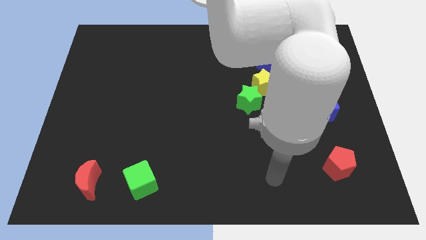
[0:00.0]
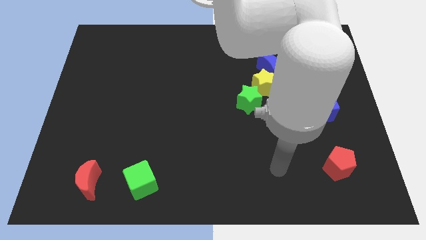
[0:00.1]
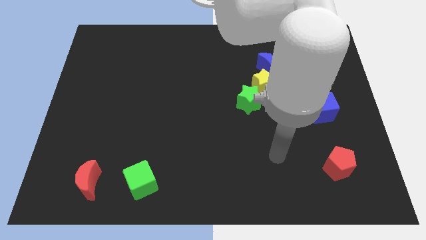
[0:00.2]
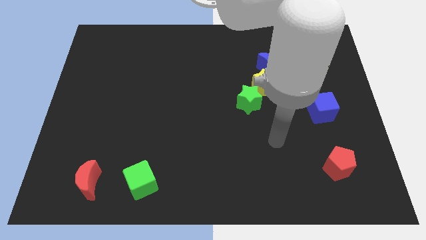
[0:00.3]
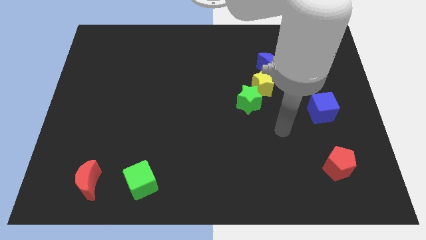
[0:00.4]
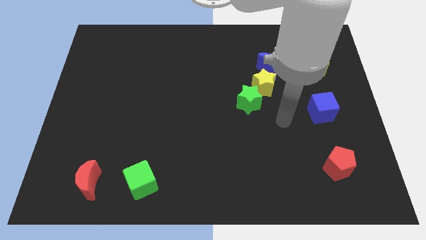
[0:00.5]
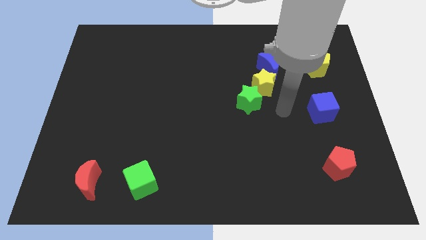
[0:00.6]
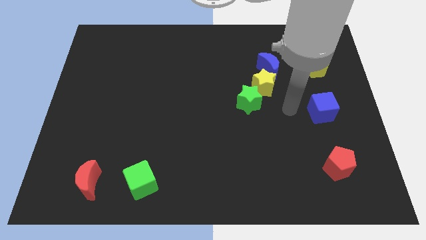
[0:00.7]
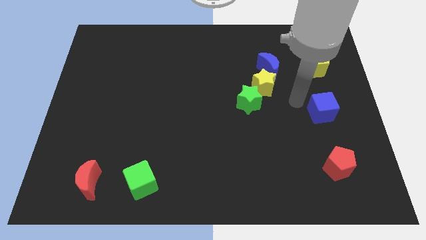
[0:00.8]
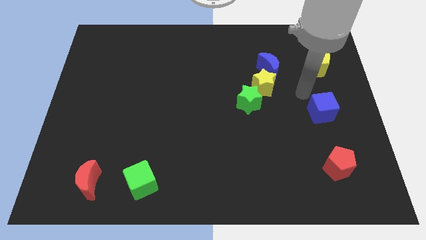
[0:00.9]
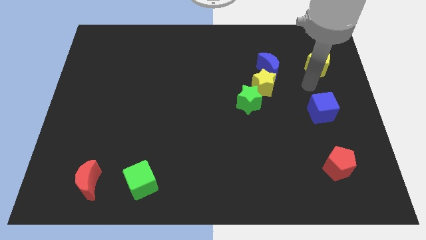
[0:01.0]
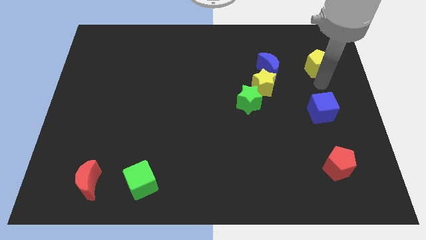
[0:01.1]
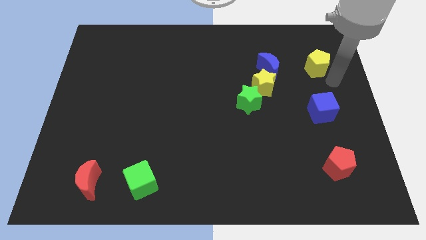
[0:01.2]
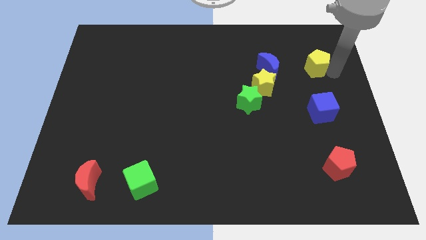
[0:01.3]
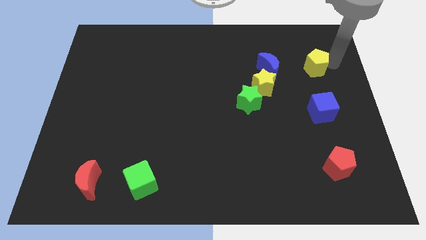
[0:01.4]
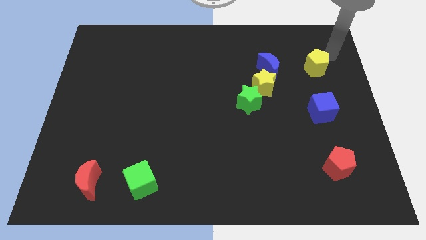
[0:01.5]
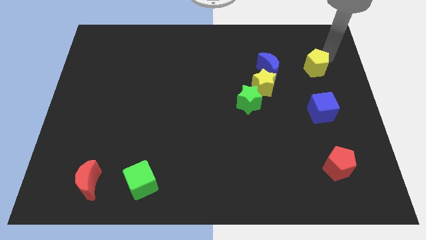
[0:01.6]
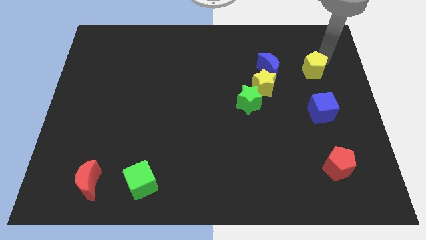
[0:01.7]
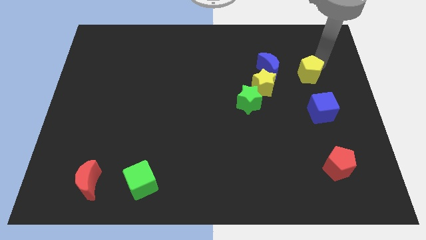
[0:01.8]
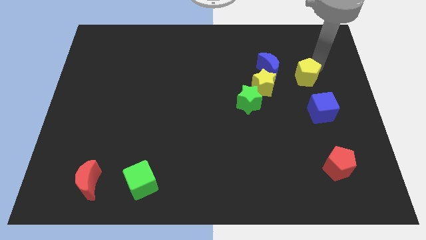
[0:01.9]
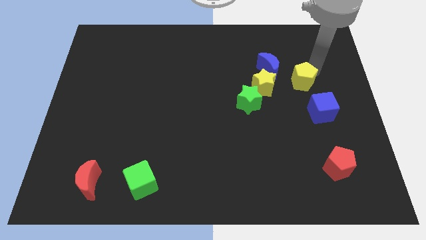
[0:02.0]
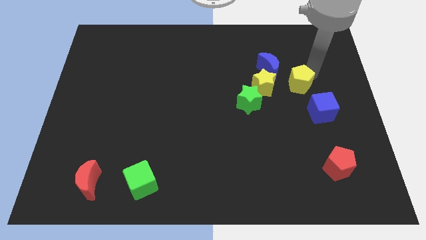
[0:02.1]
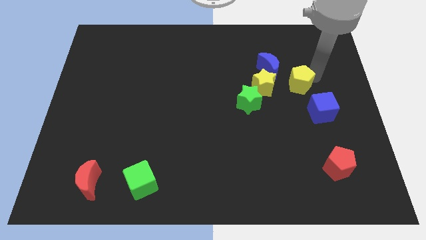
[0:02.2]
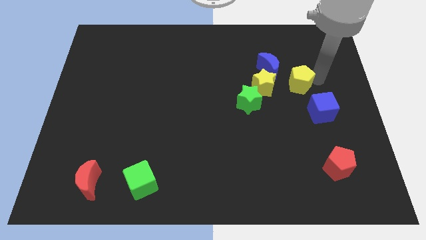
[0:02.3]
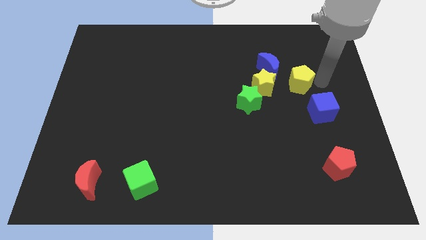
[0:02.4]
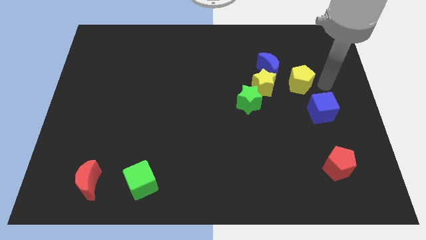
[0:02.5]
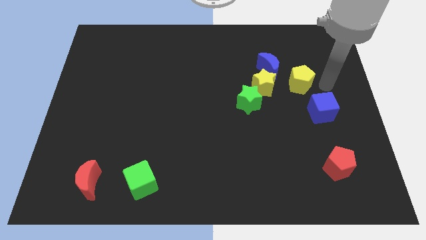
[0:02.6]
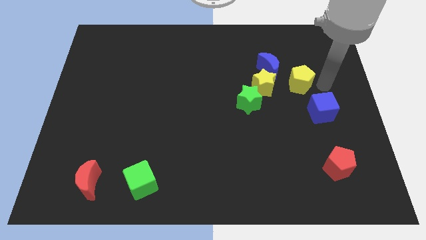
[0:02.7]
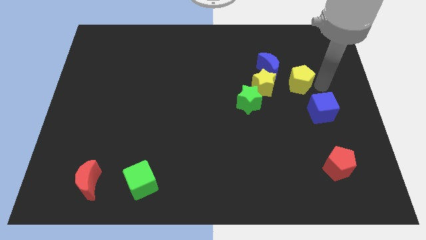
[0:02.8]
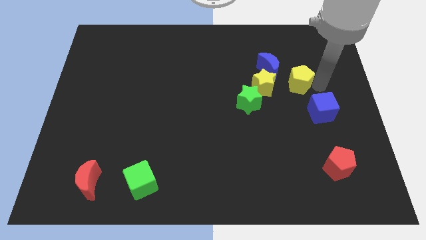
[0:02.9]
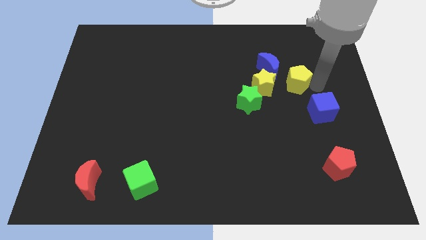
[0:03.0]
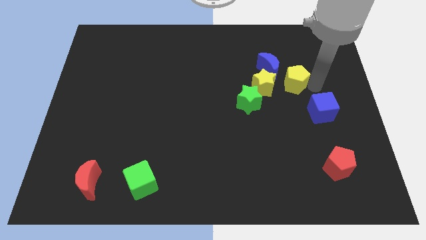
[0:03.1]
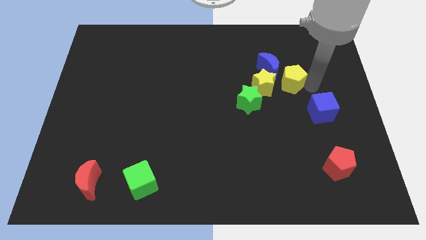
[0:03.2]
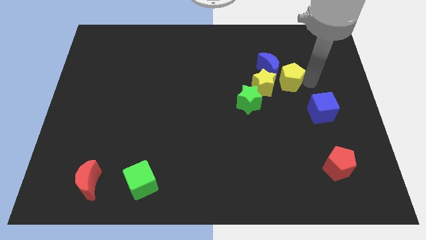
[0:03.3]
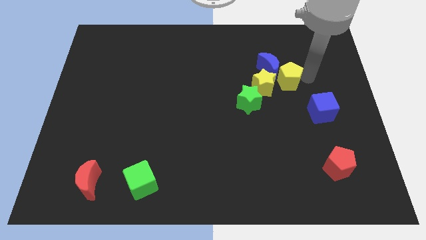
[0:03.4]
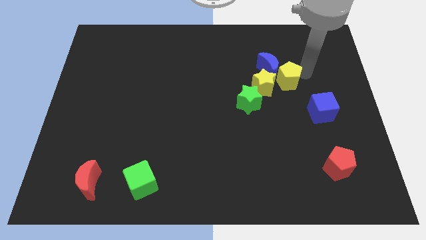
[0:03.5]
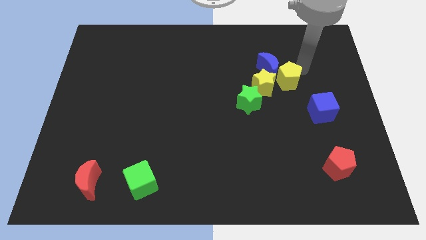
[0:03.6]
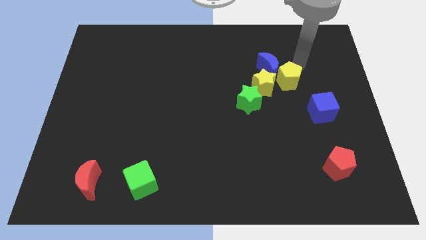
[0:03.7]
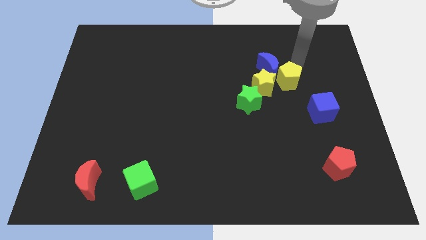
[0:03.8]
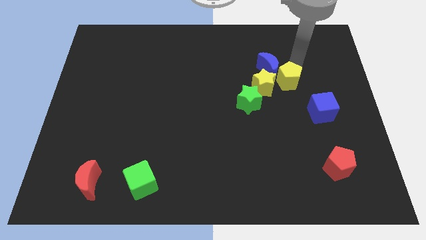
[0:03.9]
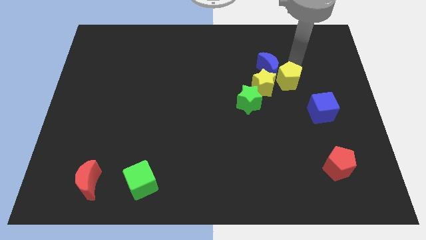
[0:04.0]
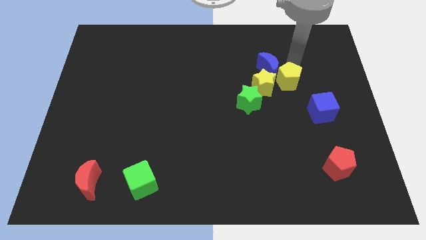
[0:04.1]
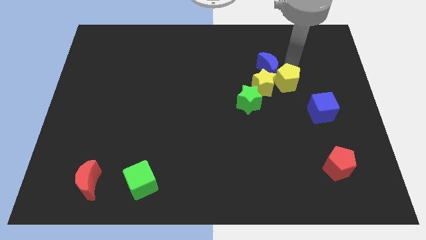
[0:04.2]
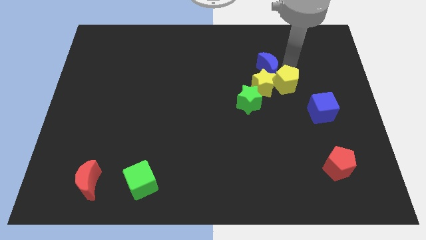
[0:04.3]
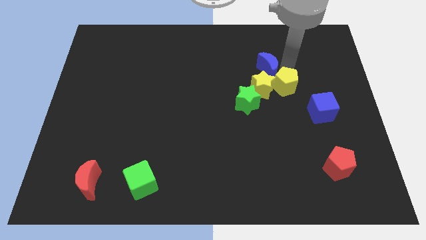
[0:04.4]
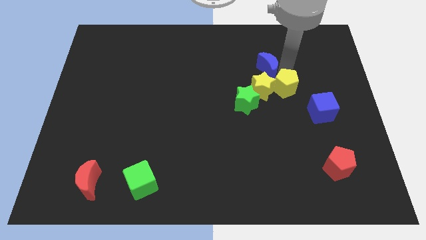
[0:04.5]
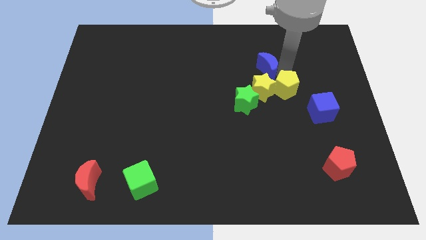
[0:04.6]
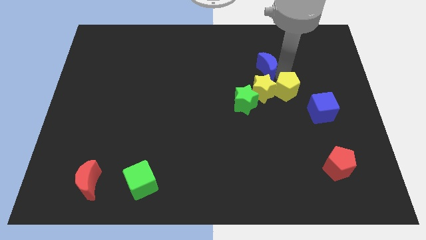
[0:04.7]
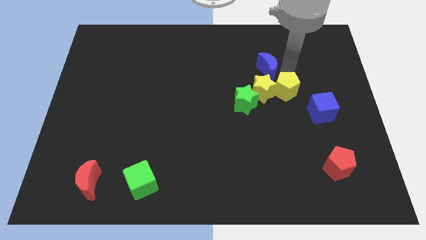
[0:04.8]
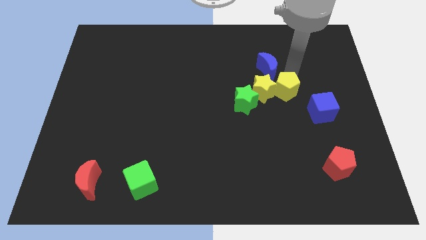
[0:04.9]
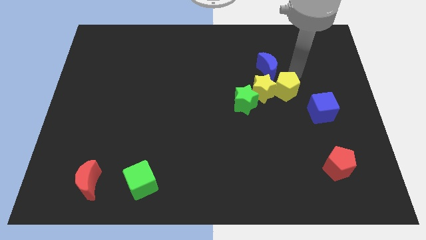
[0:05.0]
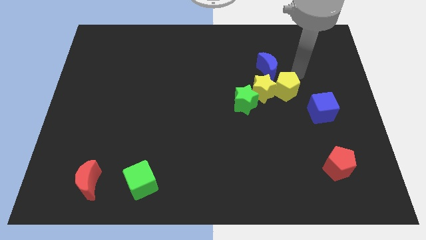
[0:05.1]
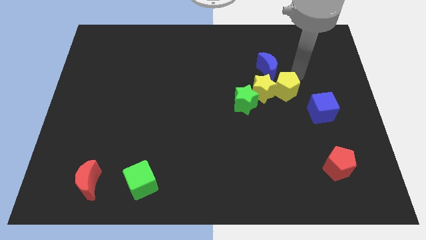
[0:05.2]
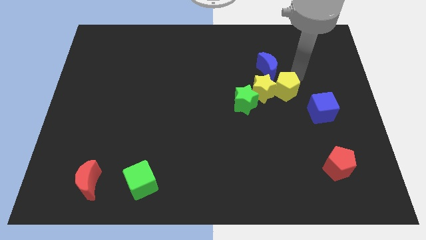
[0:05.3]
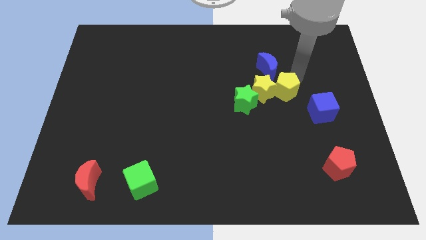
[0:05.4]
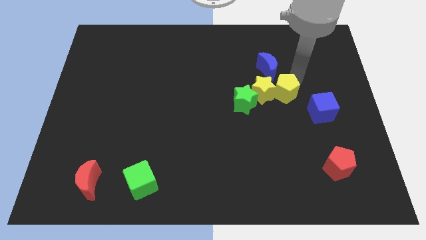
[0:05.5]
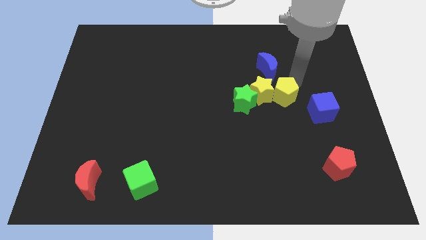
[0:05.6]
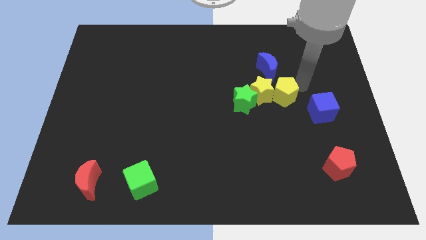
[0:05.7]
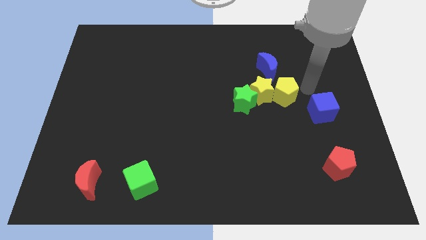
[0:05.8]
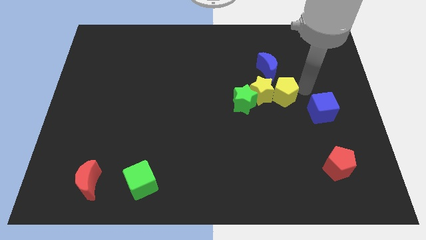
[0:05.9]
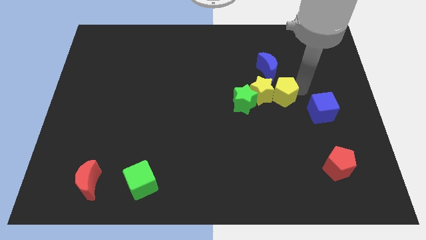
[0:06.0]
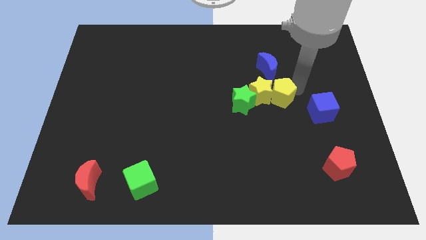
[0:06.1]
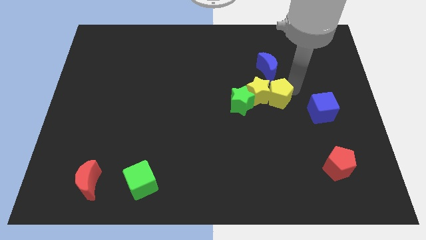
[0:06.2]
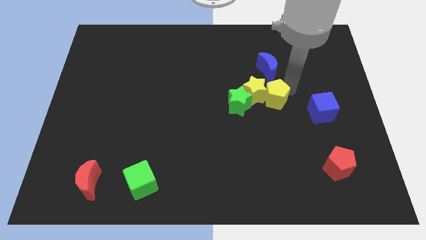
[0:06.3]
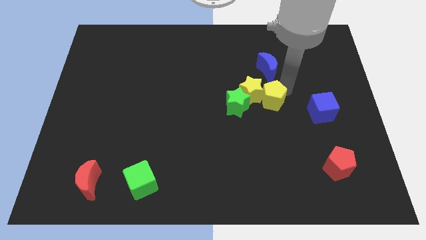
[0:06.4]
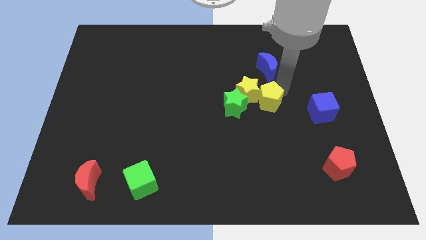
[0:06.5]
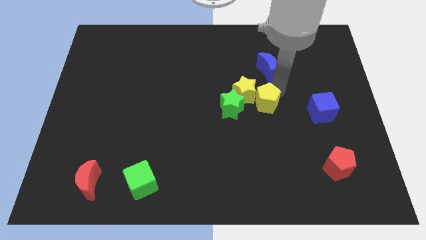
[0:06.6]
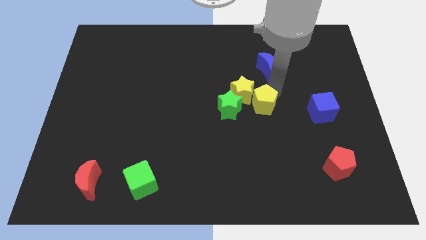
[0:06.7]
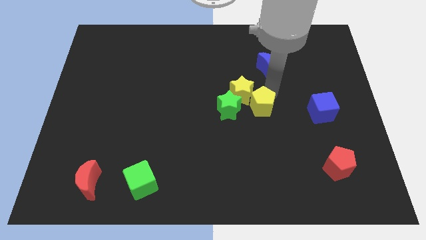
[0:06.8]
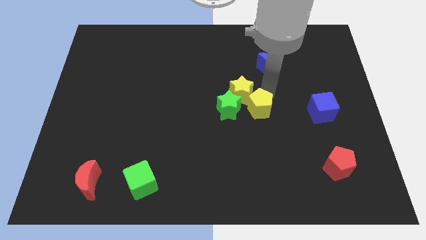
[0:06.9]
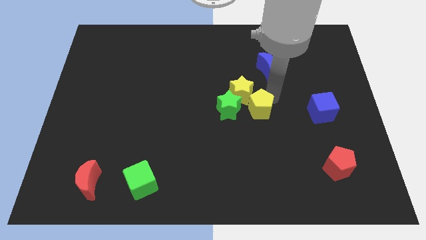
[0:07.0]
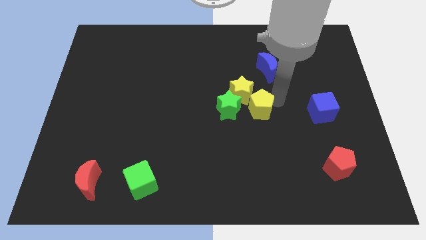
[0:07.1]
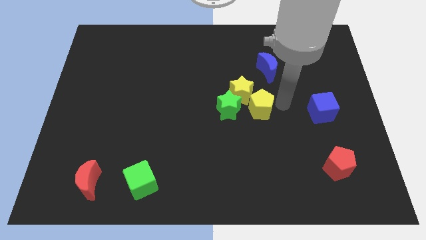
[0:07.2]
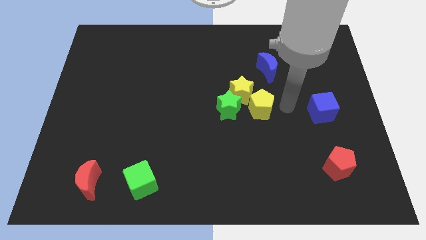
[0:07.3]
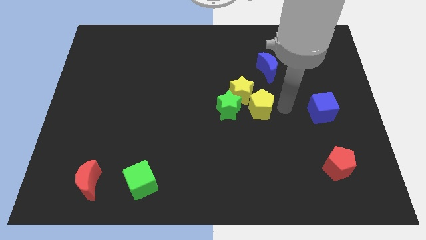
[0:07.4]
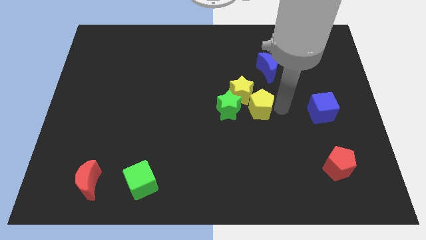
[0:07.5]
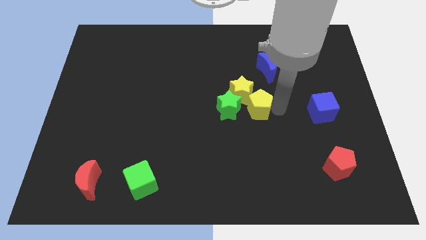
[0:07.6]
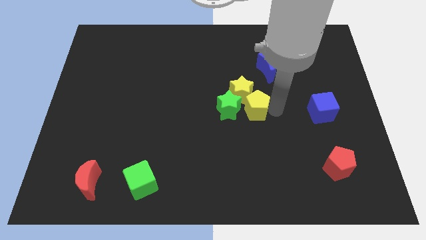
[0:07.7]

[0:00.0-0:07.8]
slide the yellow pentagon towards the green star
